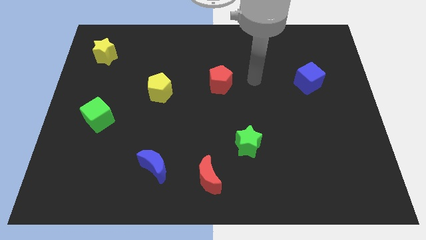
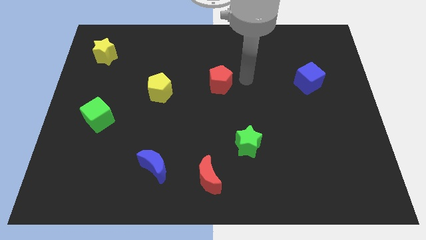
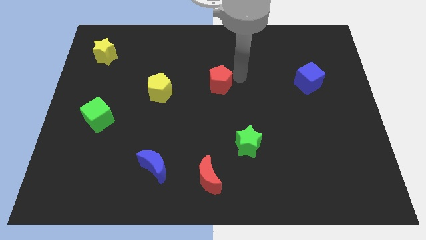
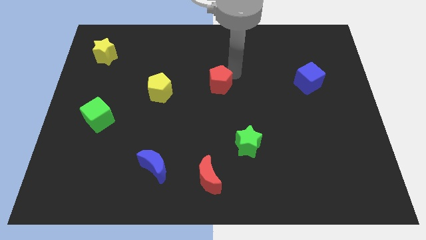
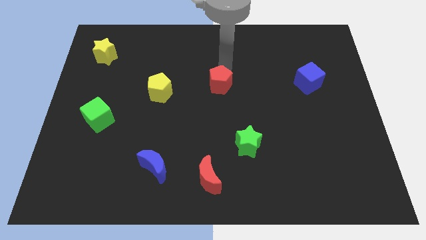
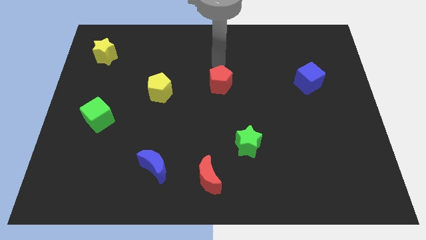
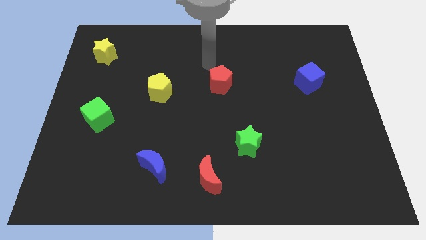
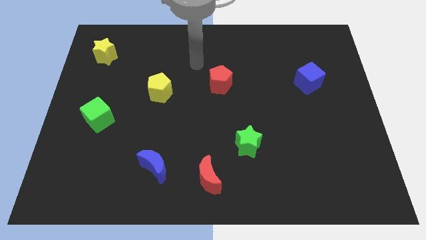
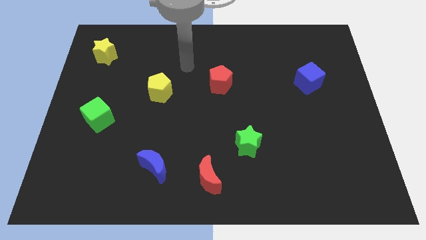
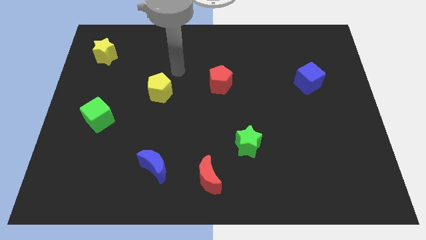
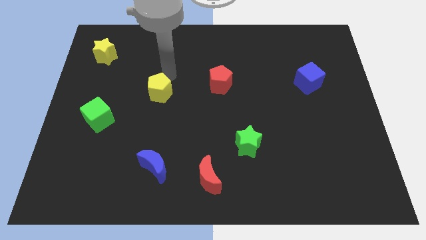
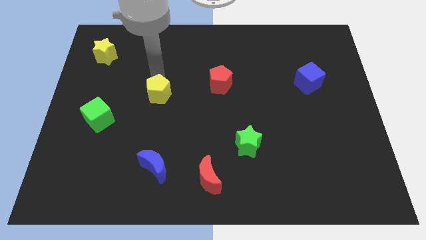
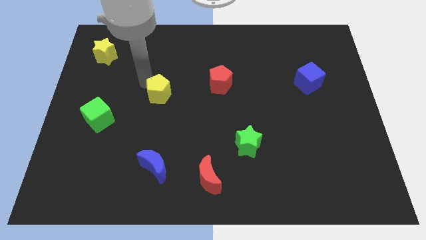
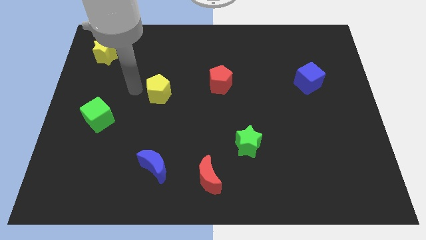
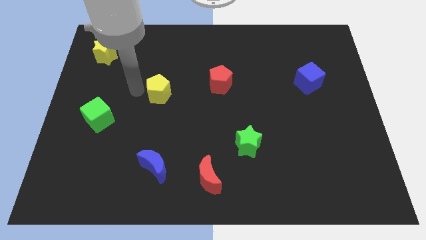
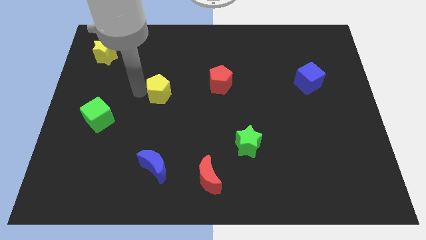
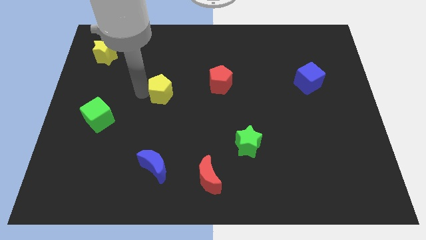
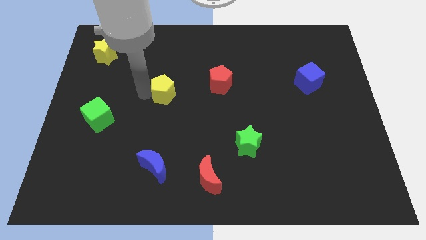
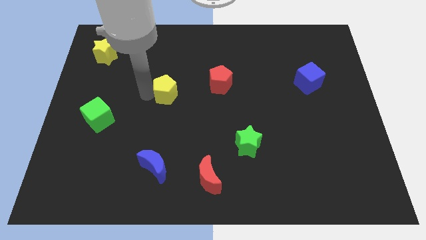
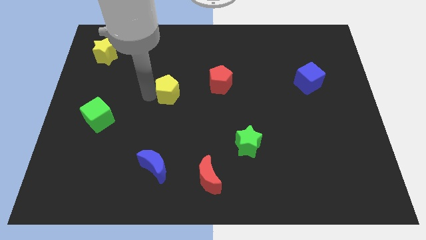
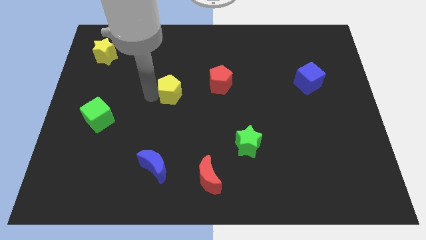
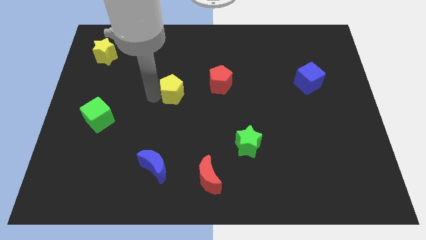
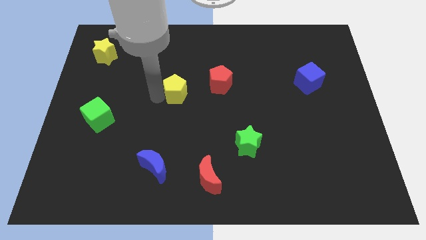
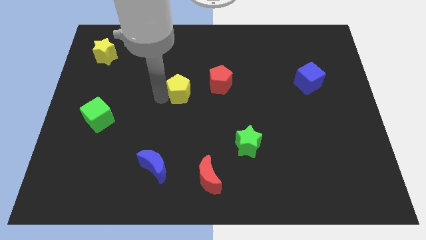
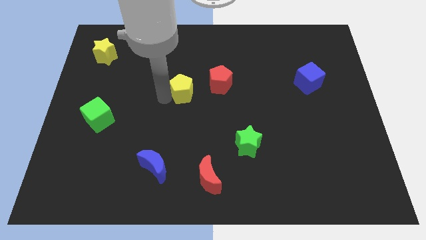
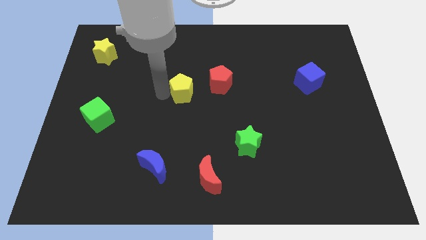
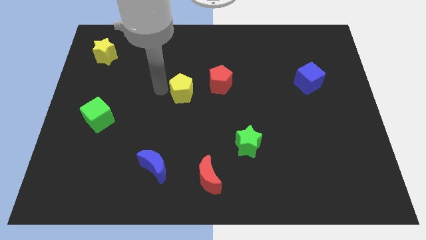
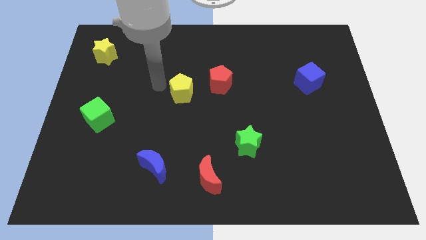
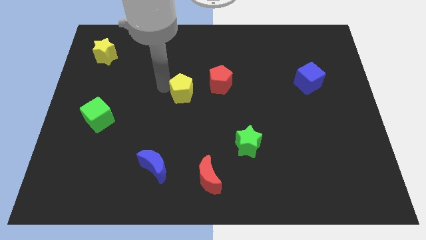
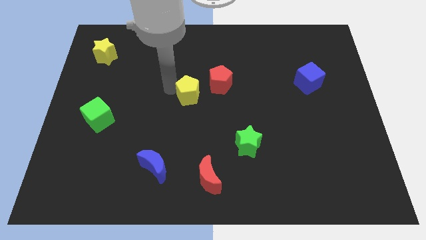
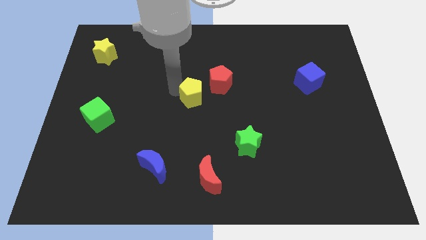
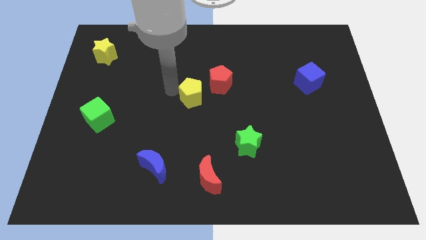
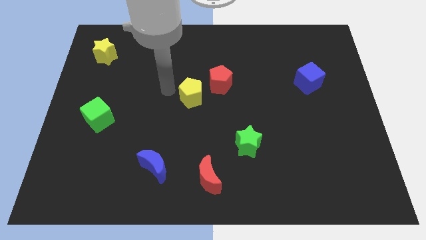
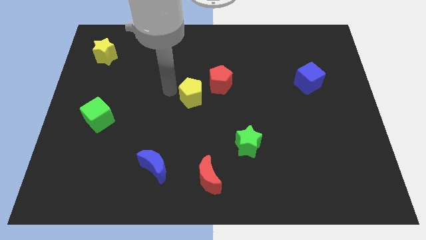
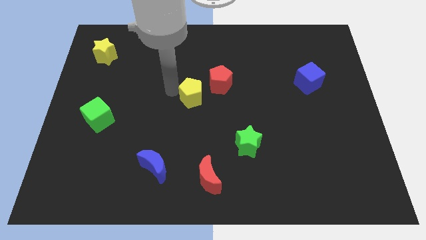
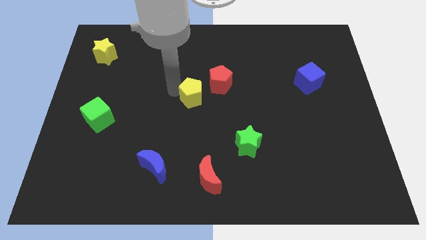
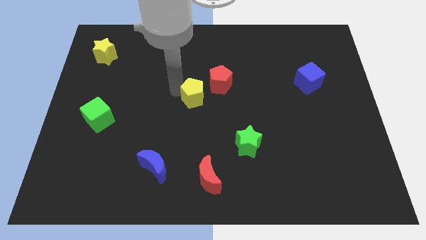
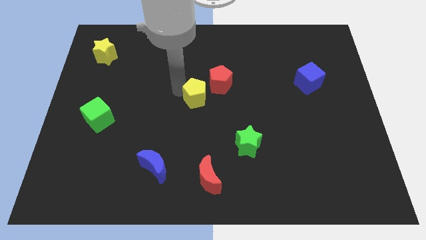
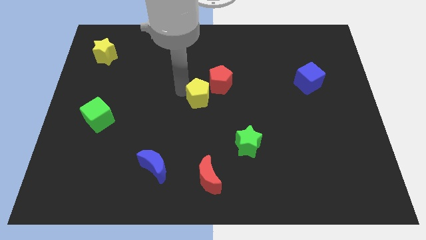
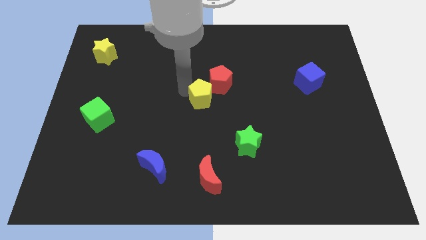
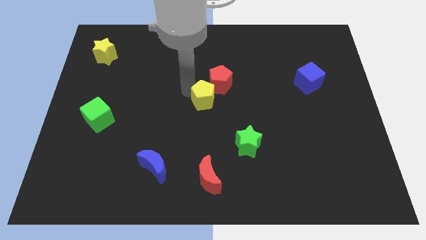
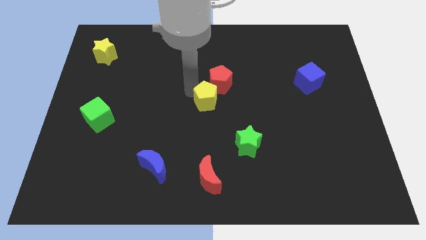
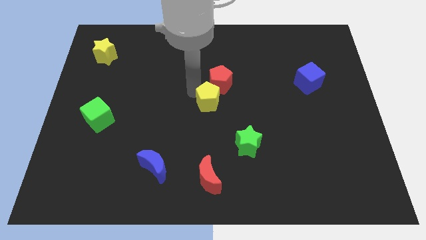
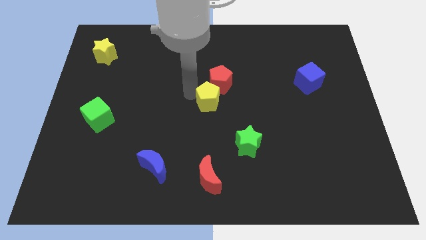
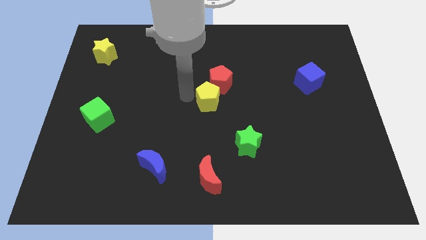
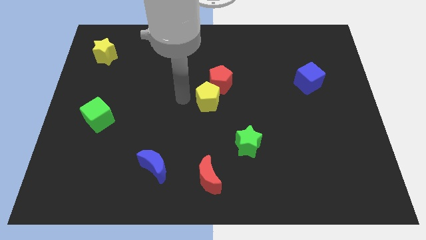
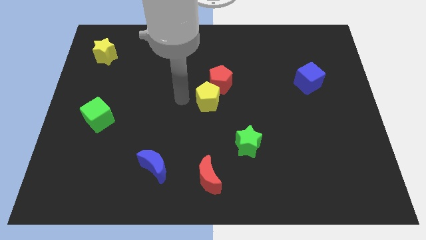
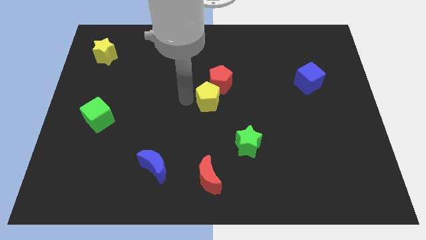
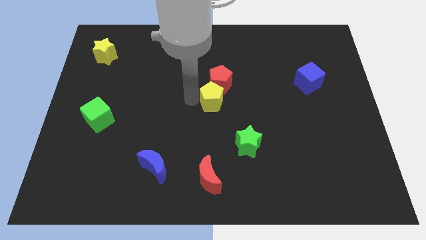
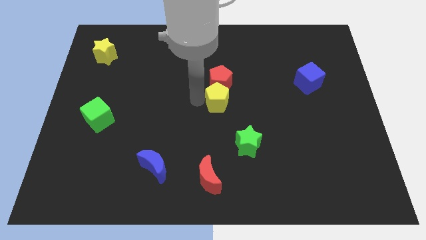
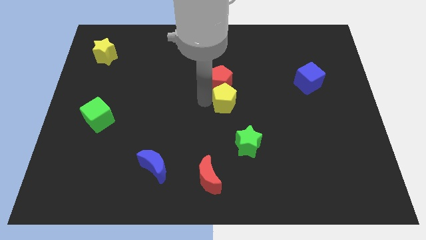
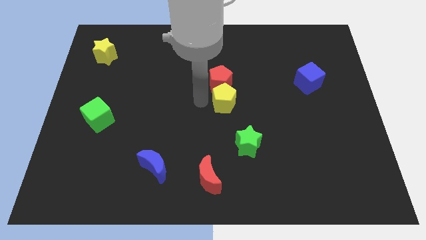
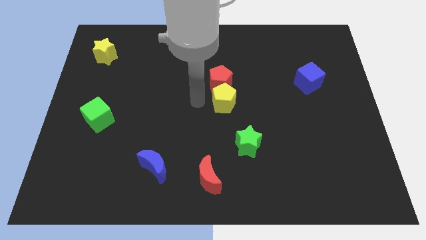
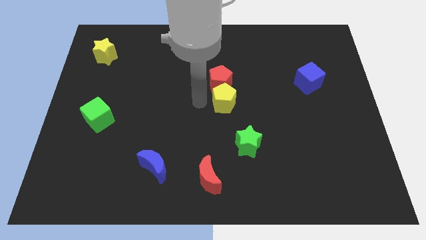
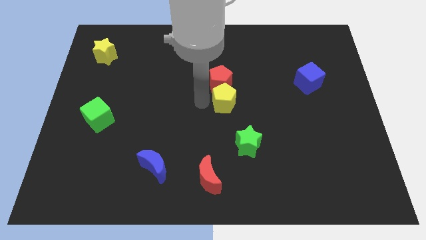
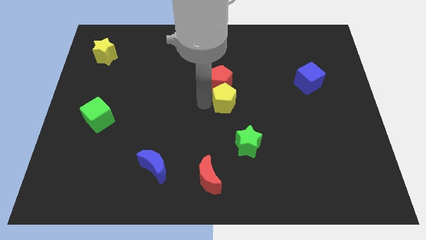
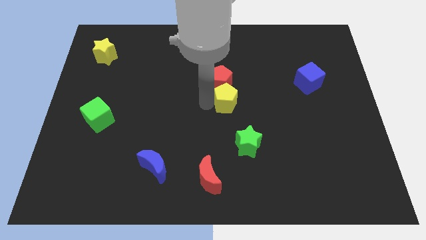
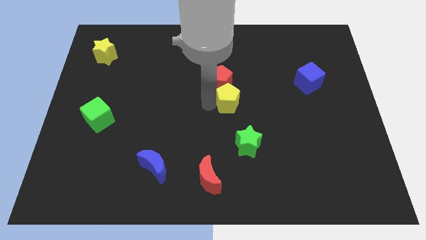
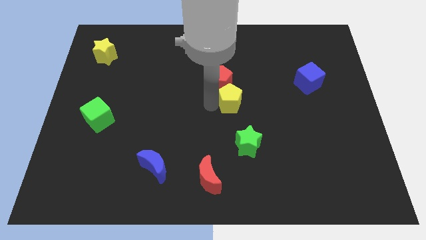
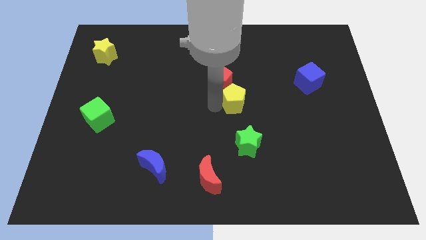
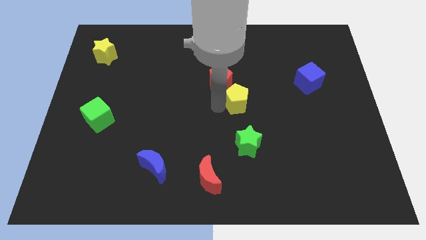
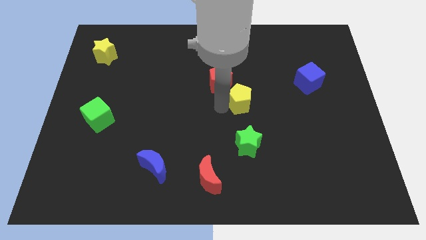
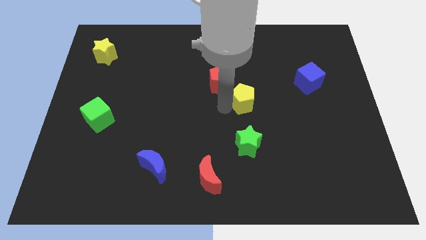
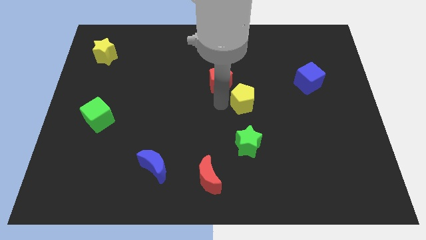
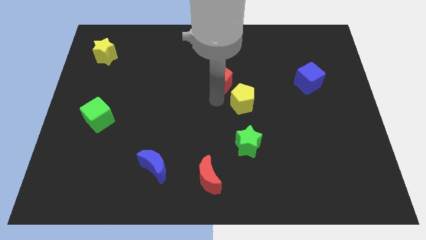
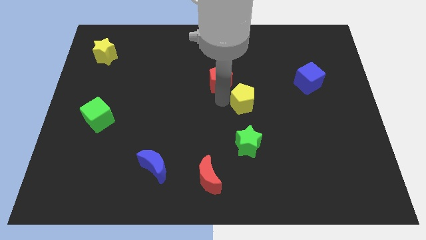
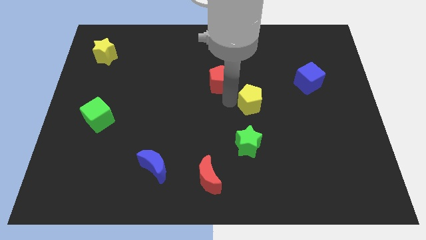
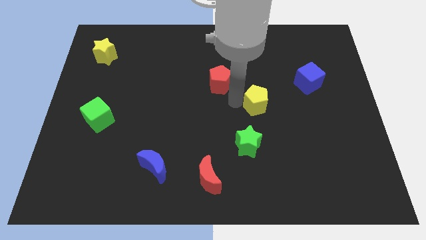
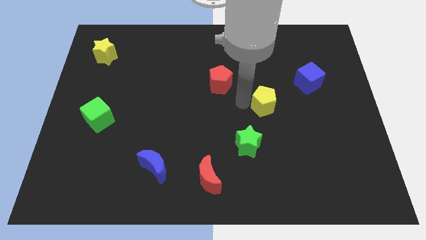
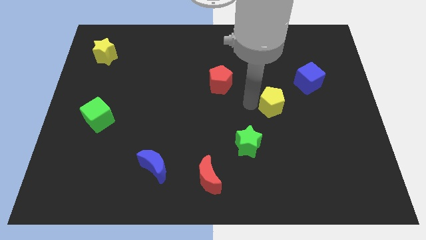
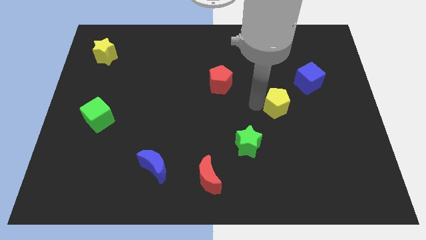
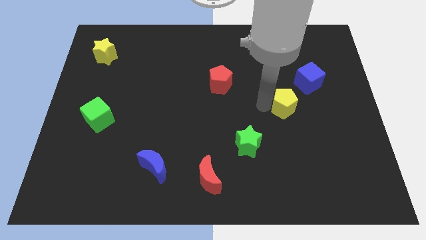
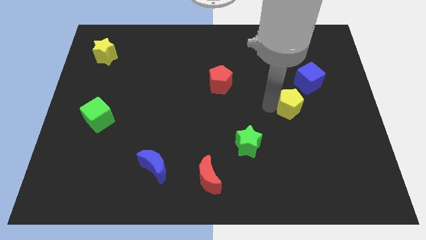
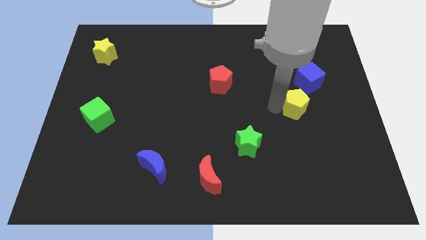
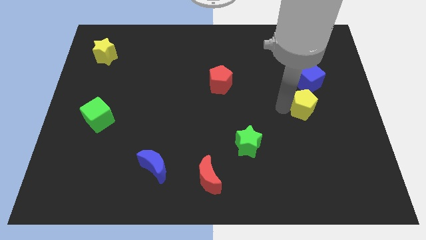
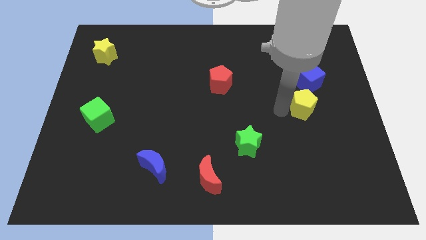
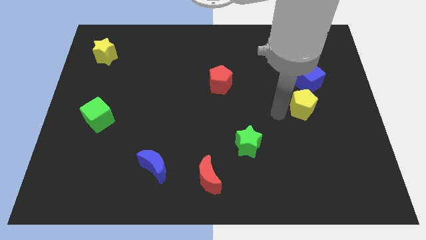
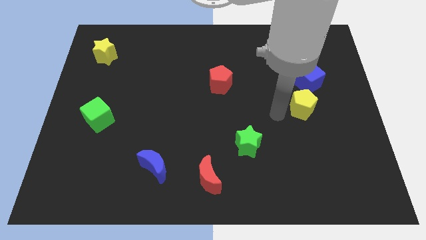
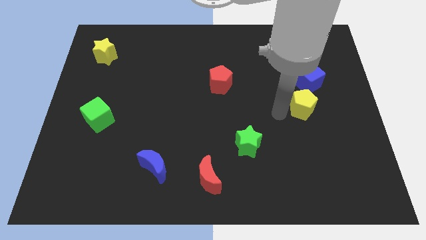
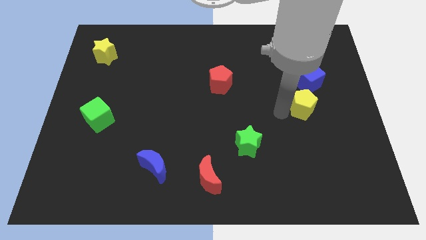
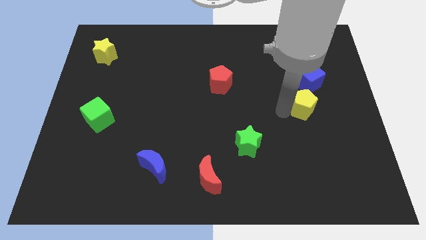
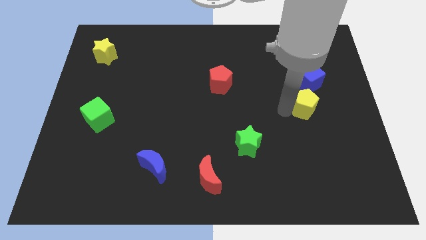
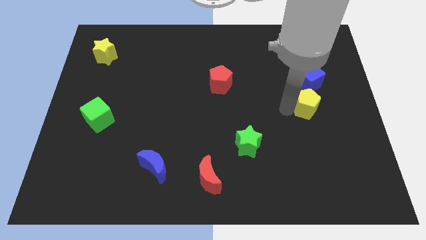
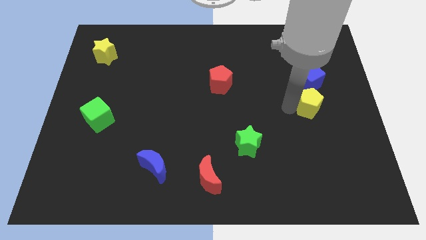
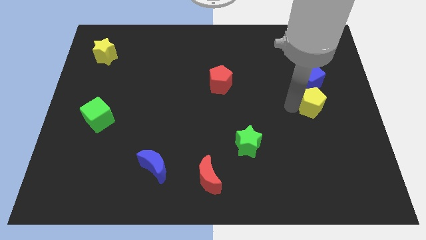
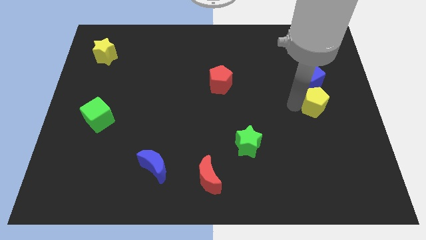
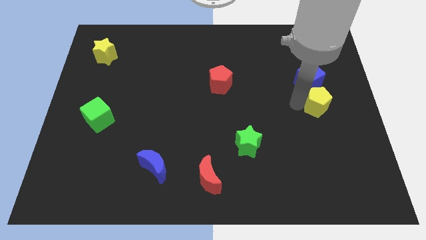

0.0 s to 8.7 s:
slide the yellow pentagon to the bottom right side of the blue cube
